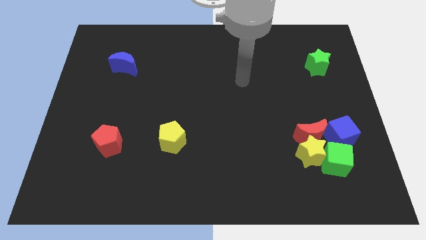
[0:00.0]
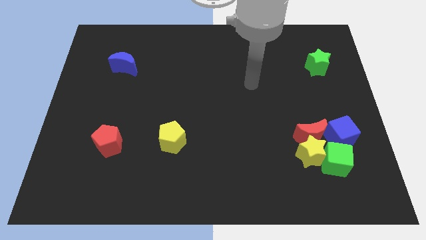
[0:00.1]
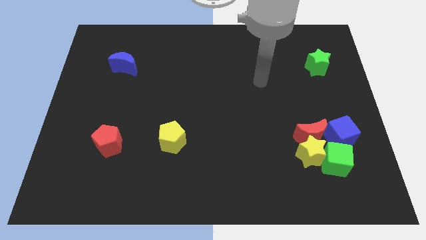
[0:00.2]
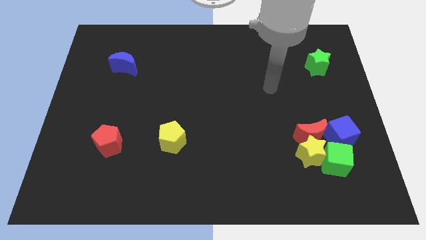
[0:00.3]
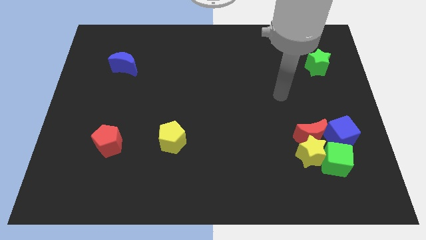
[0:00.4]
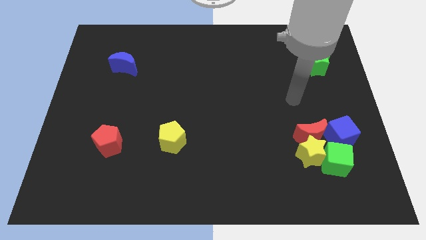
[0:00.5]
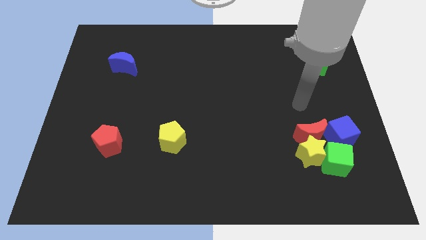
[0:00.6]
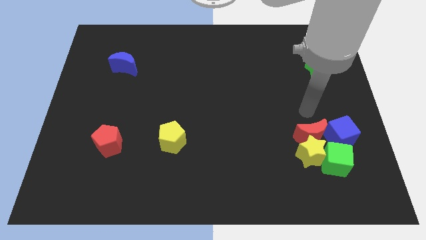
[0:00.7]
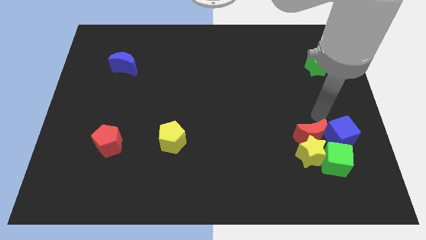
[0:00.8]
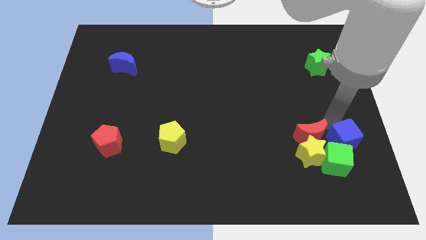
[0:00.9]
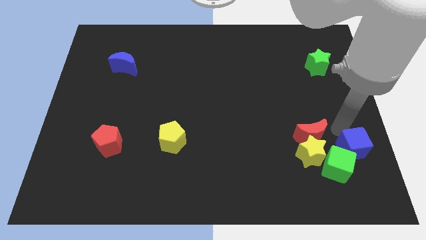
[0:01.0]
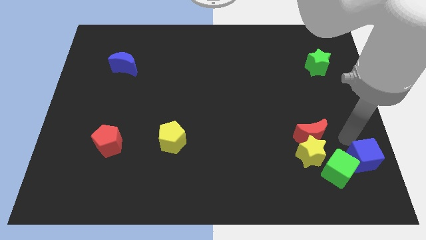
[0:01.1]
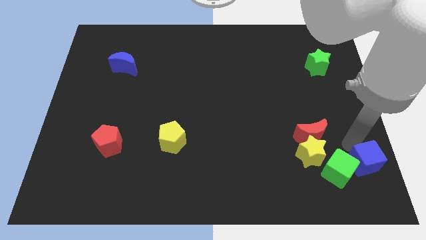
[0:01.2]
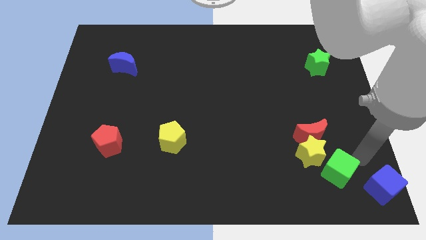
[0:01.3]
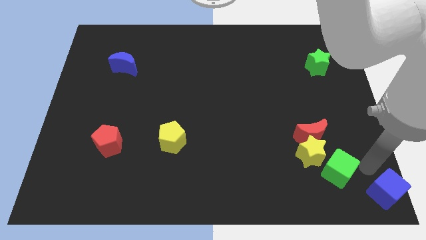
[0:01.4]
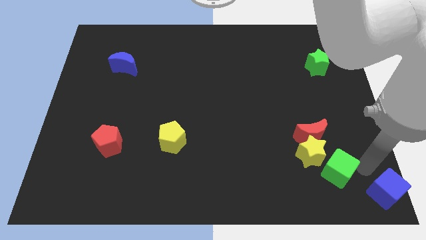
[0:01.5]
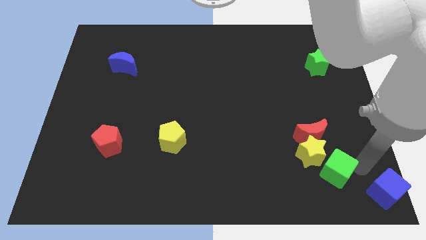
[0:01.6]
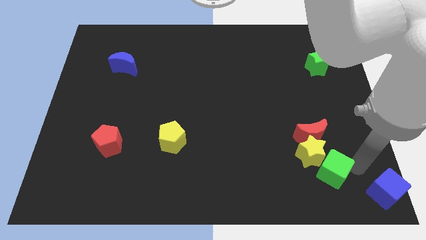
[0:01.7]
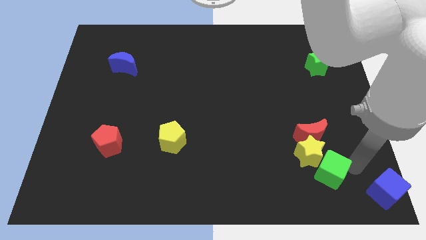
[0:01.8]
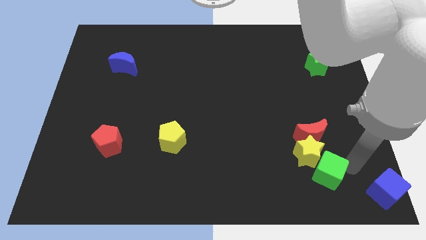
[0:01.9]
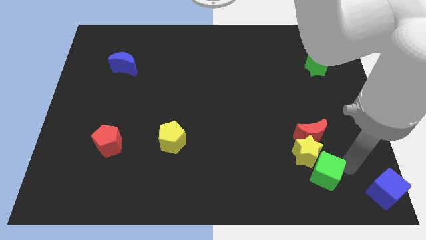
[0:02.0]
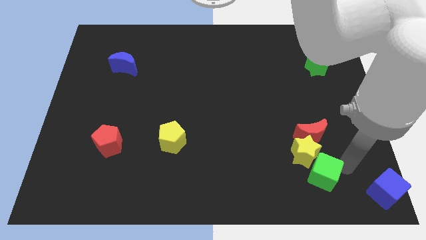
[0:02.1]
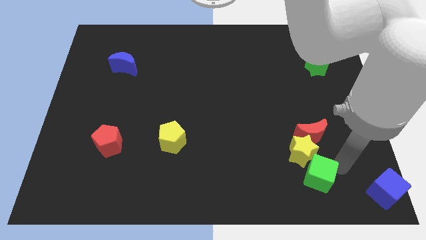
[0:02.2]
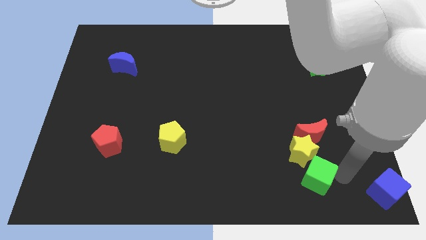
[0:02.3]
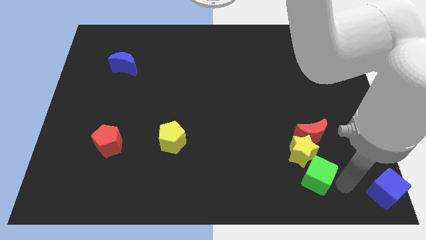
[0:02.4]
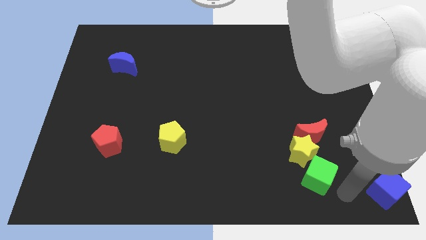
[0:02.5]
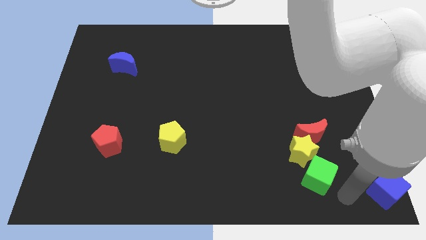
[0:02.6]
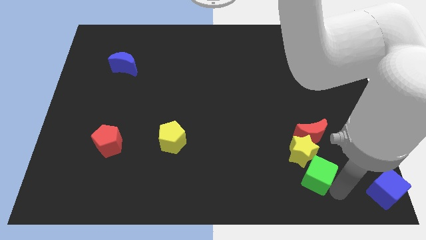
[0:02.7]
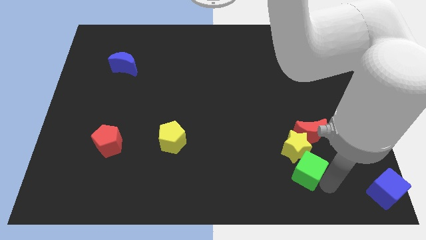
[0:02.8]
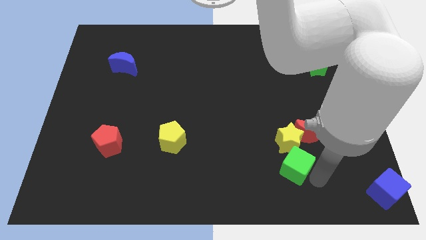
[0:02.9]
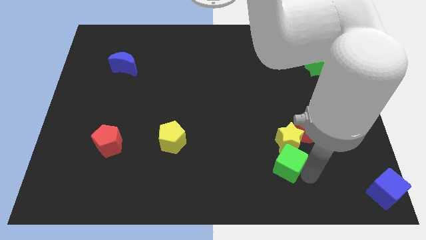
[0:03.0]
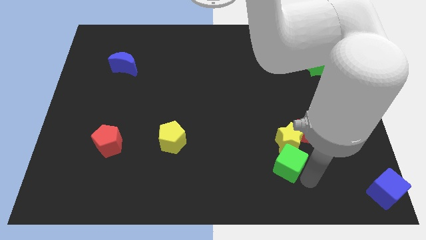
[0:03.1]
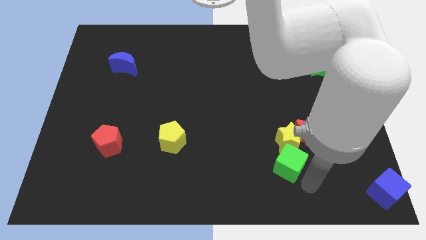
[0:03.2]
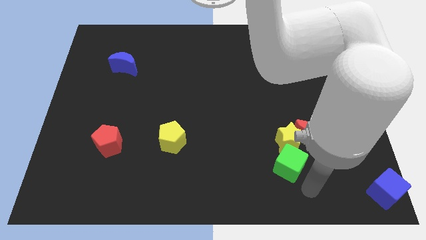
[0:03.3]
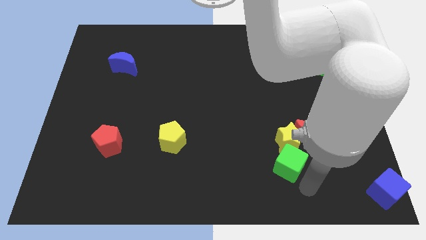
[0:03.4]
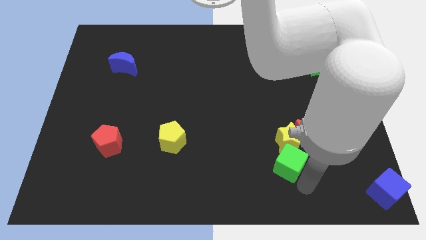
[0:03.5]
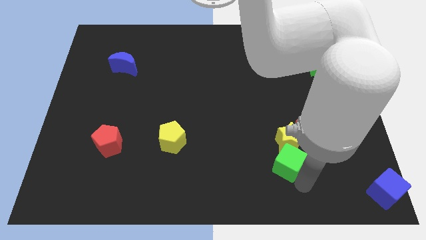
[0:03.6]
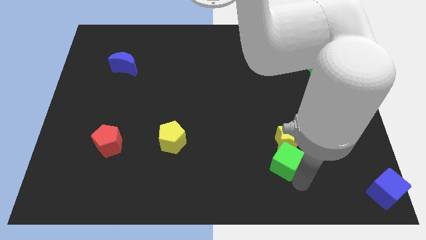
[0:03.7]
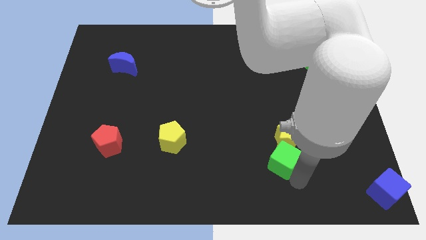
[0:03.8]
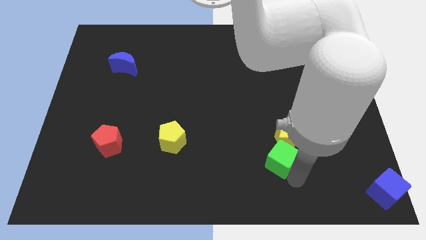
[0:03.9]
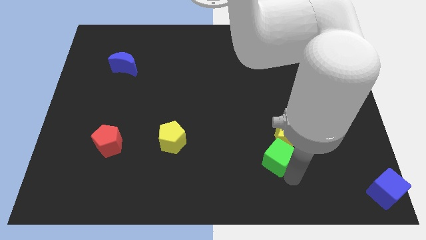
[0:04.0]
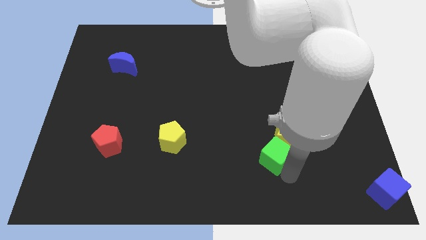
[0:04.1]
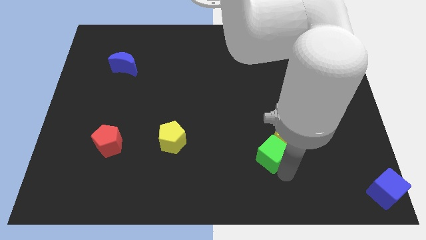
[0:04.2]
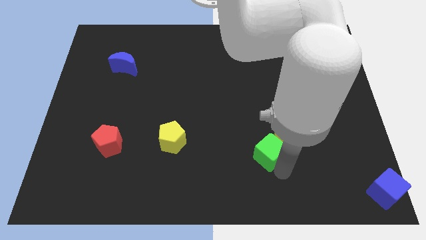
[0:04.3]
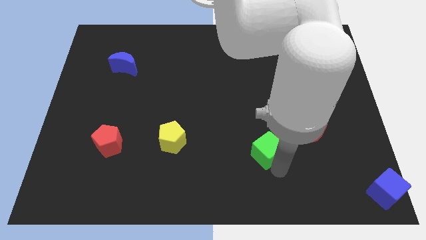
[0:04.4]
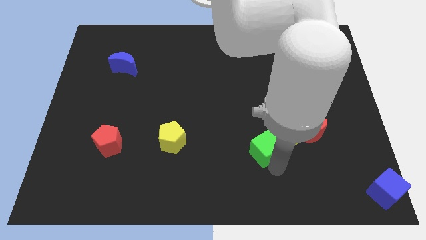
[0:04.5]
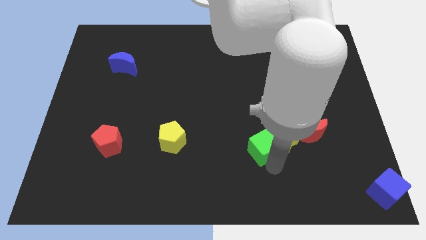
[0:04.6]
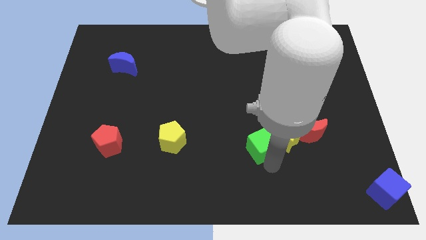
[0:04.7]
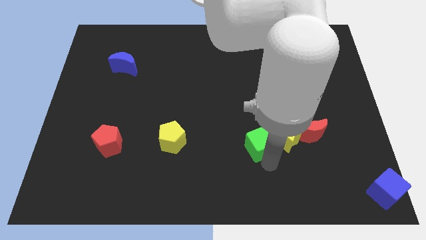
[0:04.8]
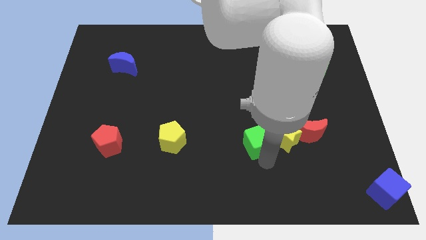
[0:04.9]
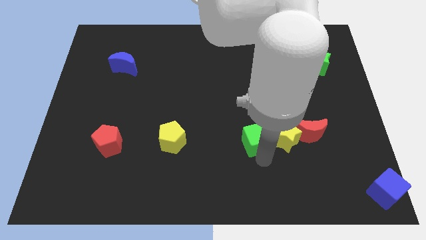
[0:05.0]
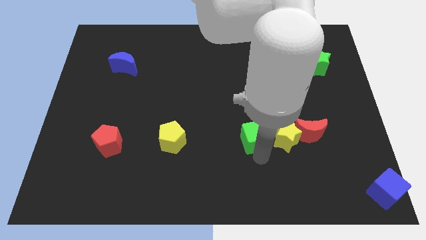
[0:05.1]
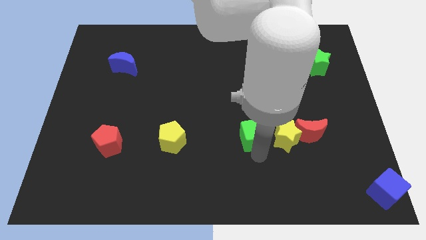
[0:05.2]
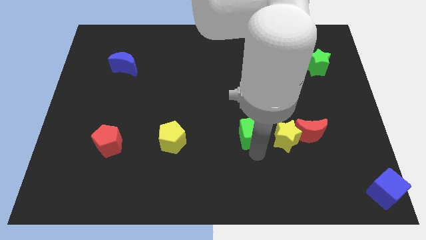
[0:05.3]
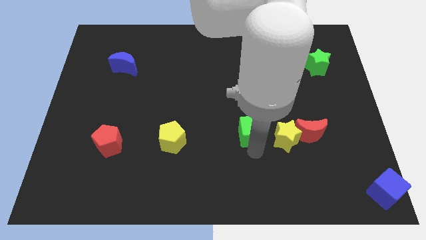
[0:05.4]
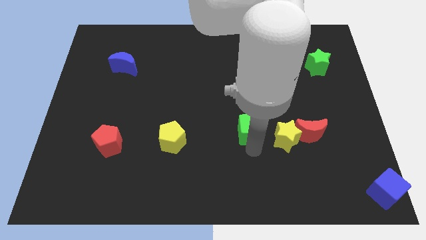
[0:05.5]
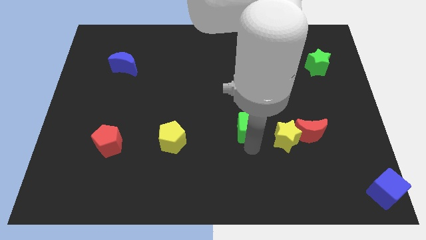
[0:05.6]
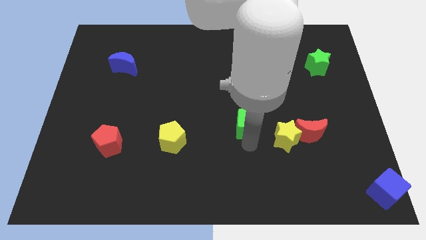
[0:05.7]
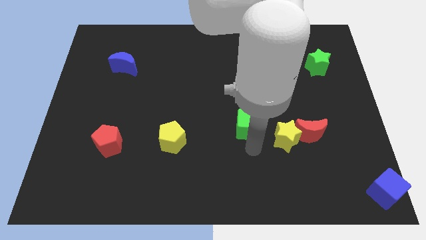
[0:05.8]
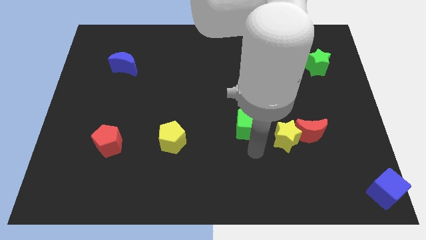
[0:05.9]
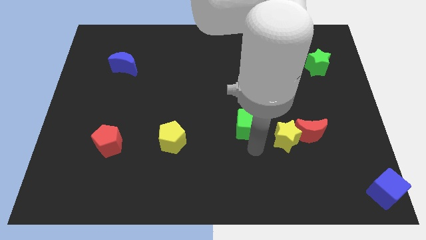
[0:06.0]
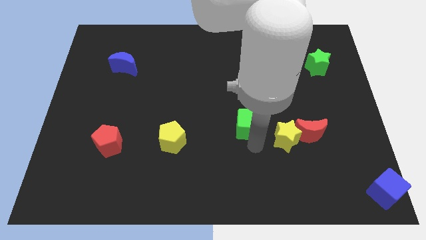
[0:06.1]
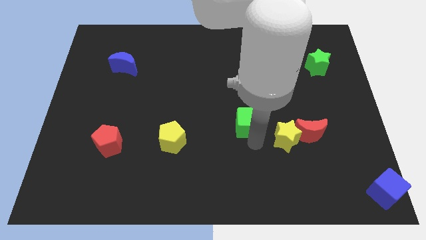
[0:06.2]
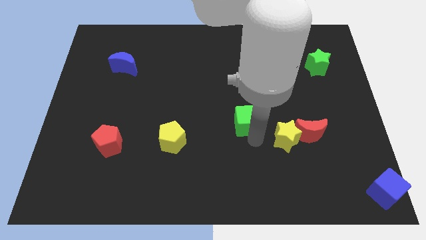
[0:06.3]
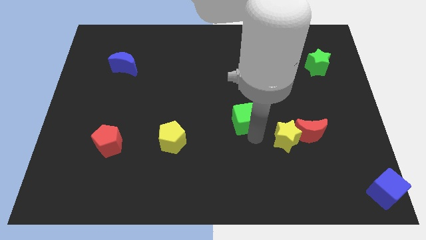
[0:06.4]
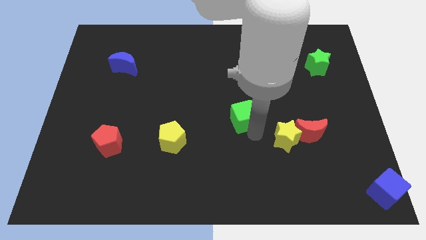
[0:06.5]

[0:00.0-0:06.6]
move the green cube up and then left

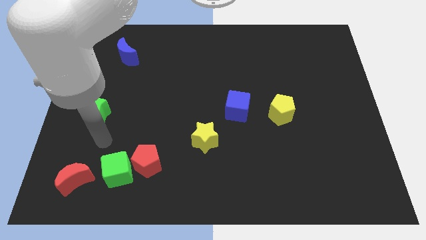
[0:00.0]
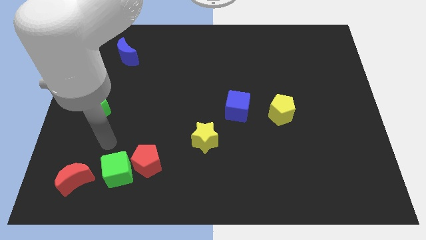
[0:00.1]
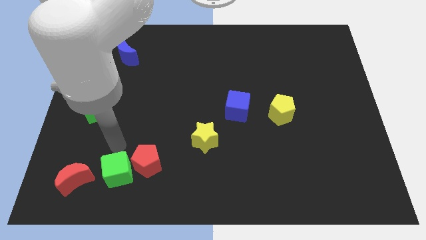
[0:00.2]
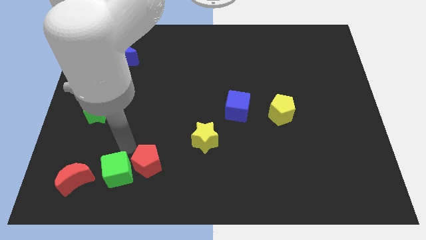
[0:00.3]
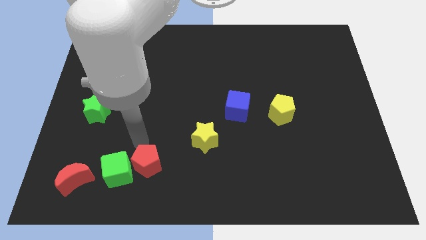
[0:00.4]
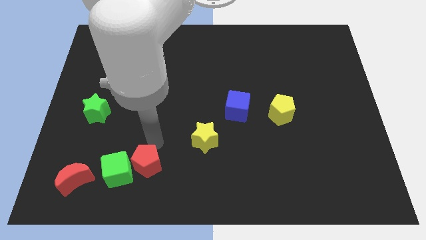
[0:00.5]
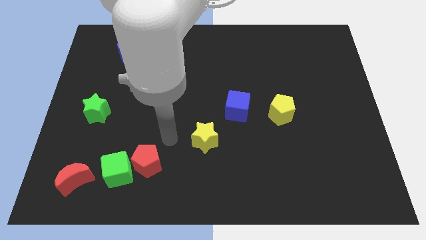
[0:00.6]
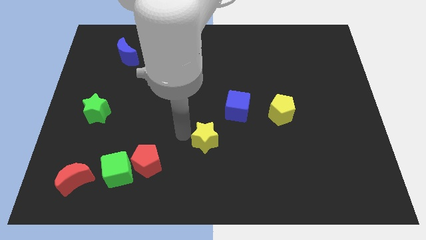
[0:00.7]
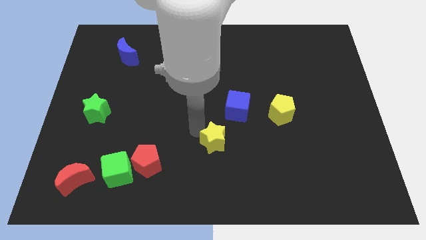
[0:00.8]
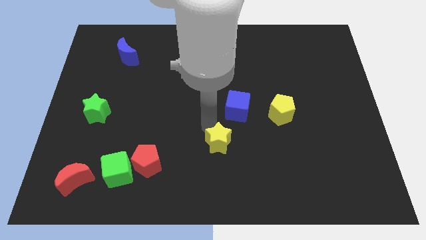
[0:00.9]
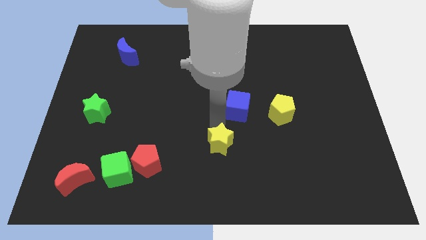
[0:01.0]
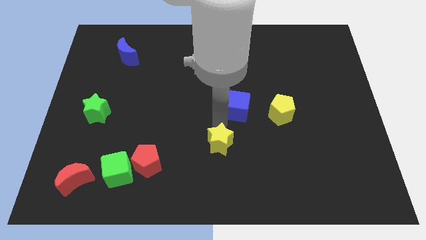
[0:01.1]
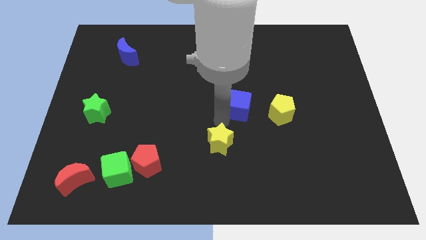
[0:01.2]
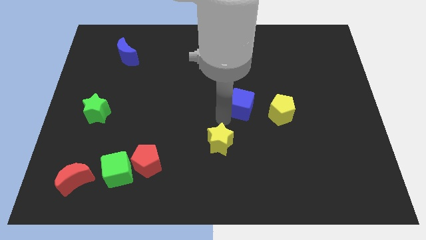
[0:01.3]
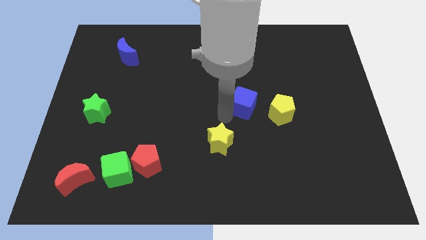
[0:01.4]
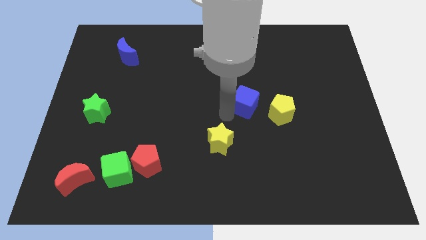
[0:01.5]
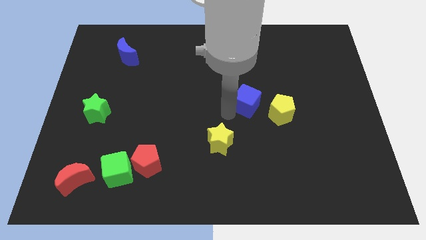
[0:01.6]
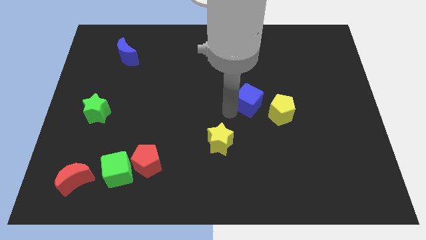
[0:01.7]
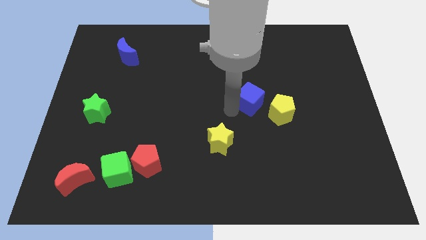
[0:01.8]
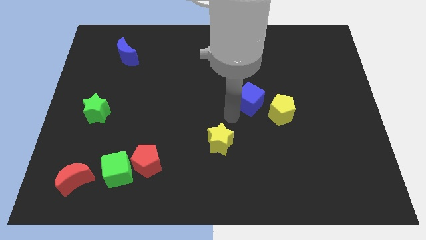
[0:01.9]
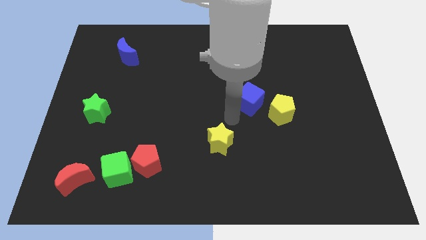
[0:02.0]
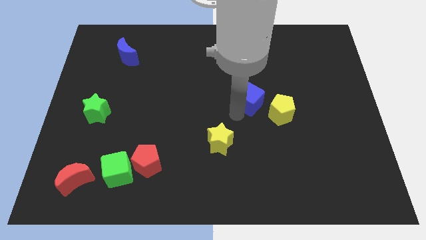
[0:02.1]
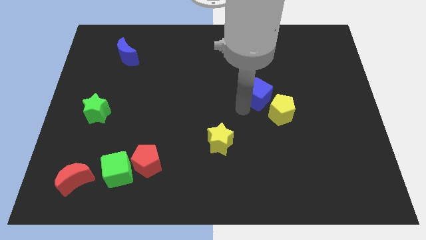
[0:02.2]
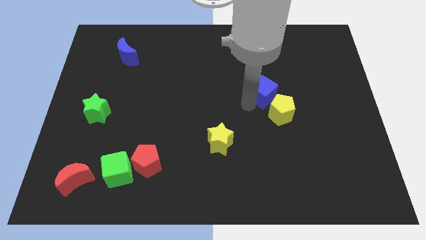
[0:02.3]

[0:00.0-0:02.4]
move the blue cube diagonally upwards and right a little bit
